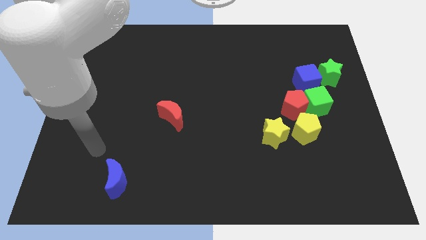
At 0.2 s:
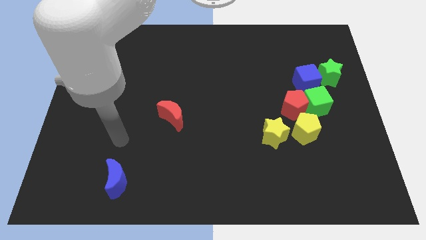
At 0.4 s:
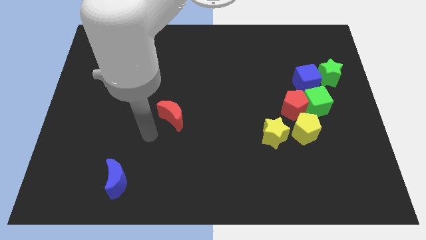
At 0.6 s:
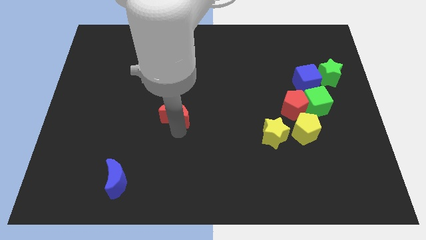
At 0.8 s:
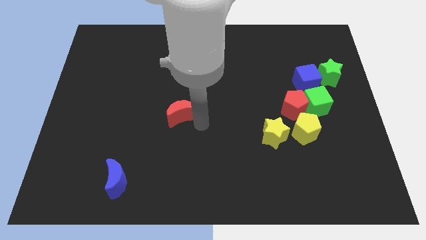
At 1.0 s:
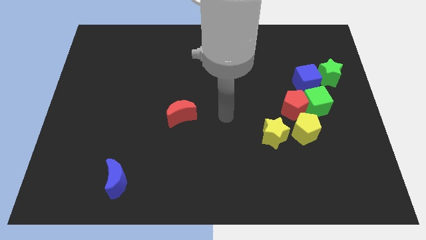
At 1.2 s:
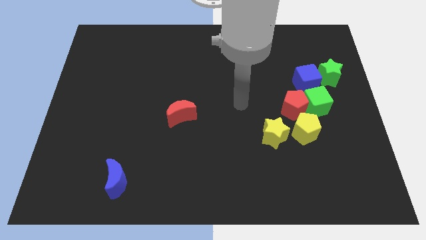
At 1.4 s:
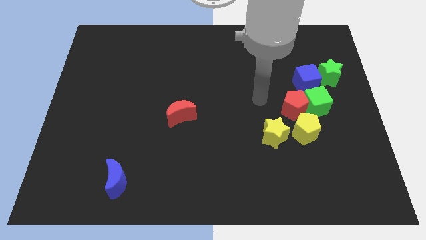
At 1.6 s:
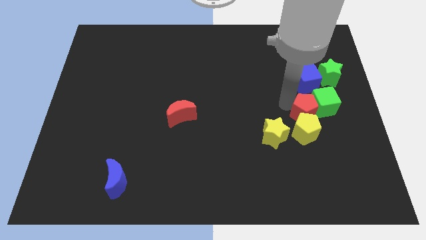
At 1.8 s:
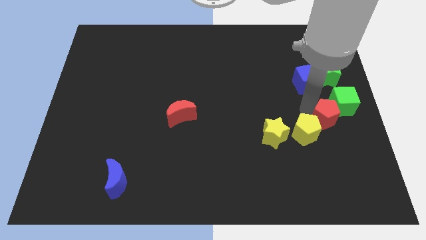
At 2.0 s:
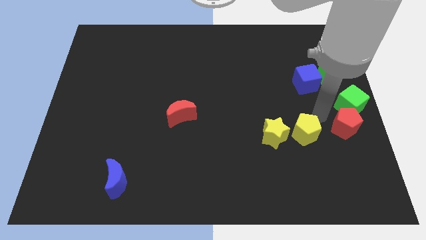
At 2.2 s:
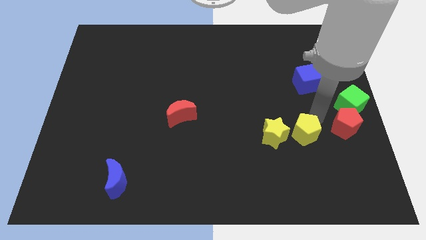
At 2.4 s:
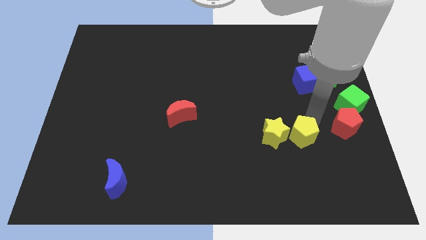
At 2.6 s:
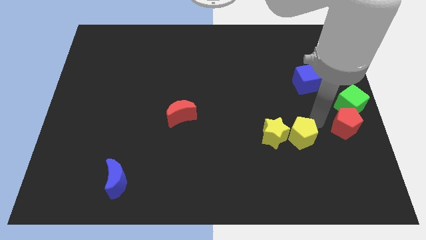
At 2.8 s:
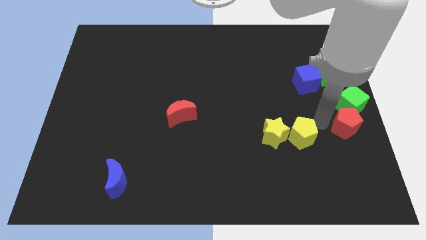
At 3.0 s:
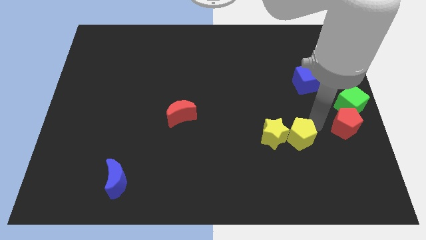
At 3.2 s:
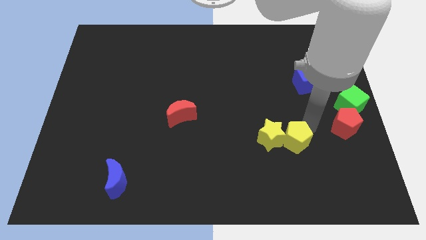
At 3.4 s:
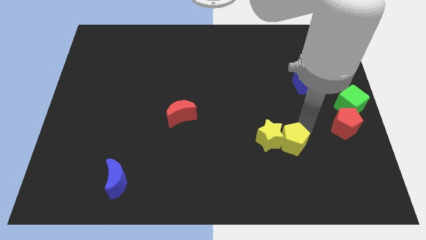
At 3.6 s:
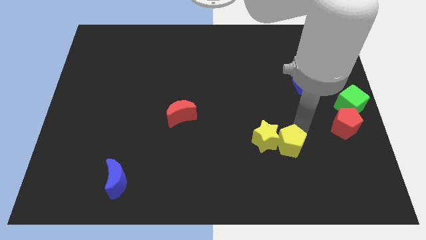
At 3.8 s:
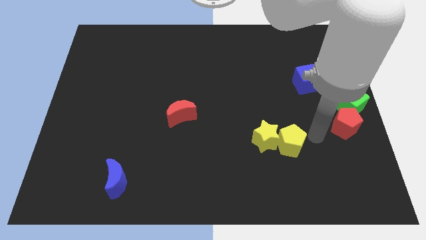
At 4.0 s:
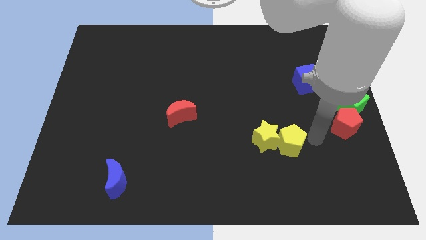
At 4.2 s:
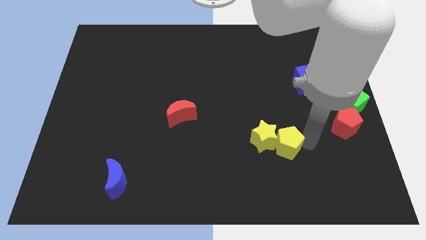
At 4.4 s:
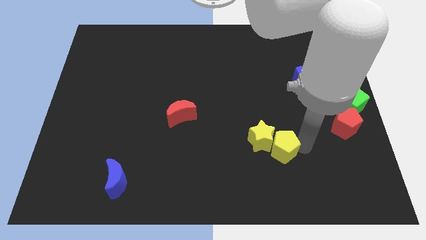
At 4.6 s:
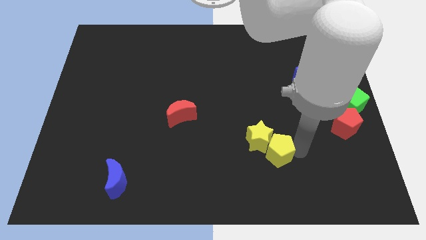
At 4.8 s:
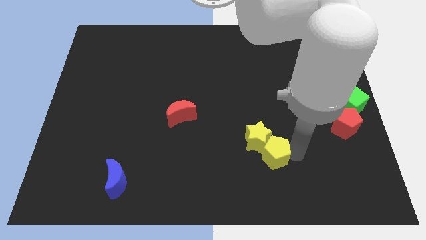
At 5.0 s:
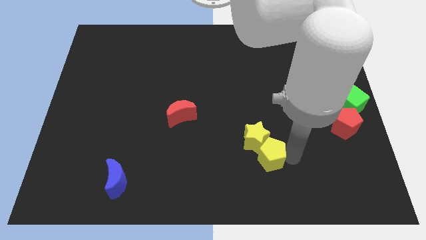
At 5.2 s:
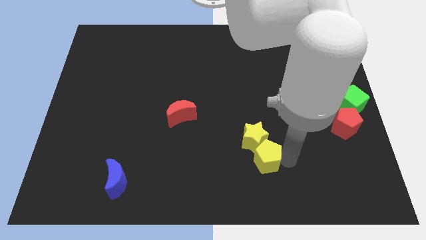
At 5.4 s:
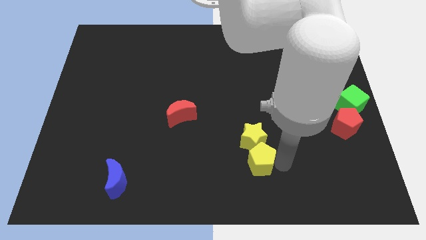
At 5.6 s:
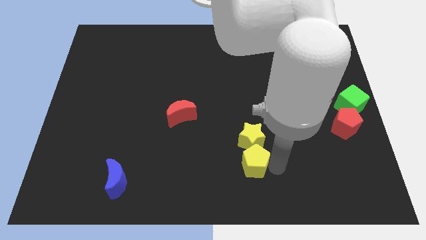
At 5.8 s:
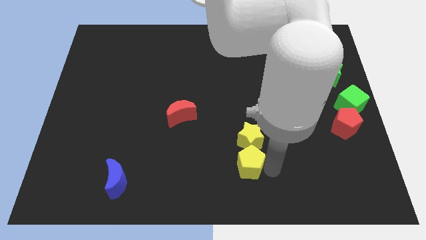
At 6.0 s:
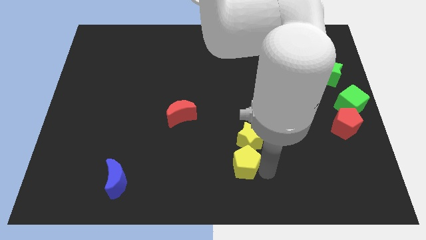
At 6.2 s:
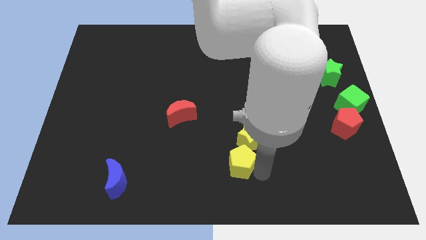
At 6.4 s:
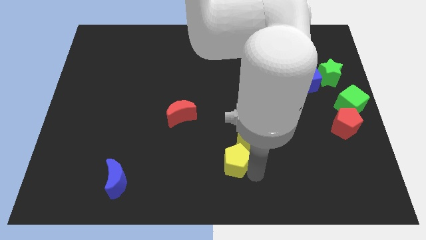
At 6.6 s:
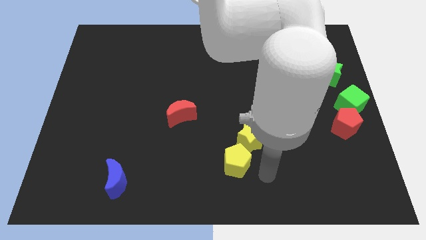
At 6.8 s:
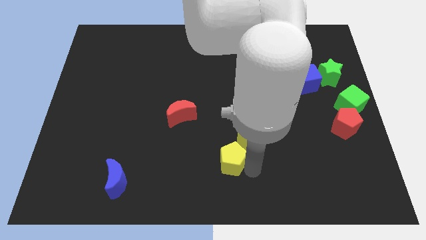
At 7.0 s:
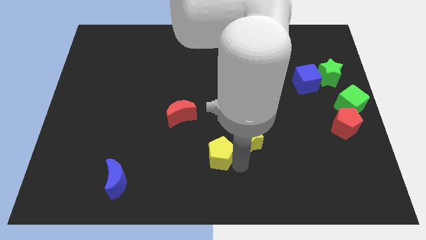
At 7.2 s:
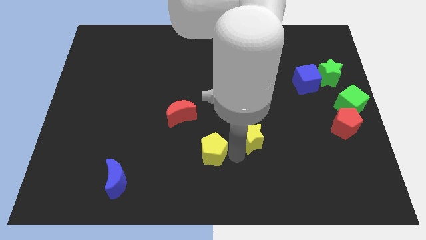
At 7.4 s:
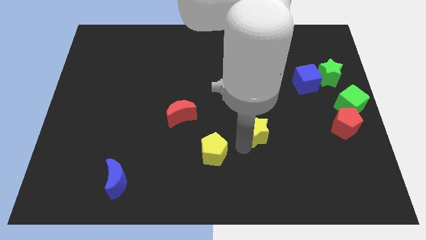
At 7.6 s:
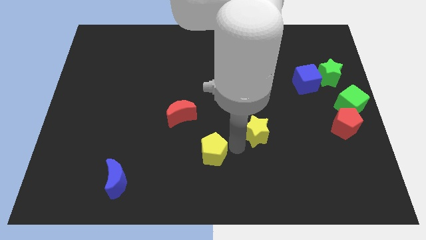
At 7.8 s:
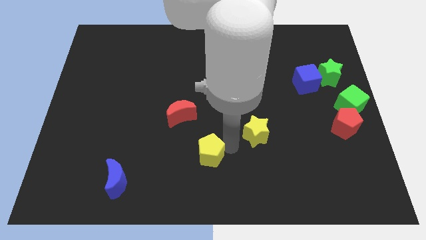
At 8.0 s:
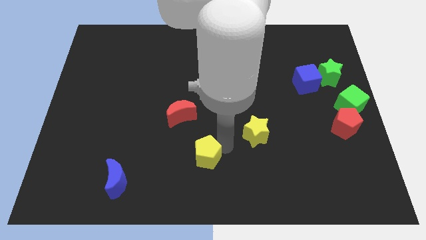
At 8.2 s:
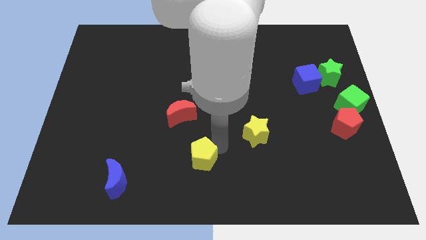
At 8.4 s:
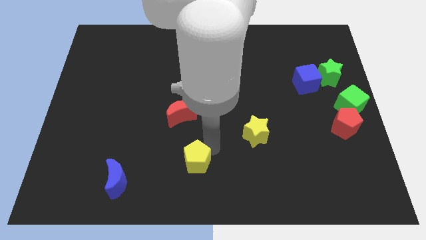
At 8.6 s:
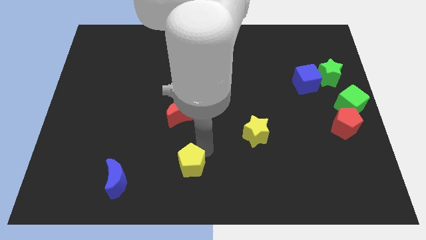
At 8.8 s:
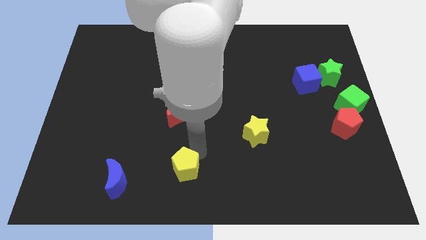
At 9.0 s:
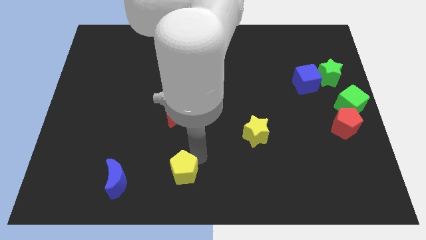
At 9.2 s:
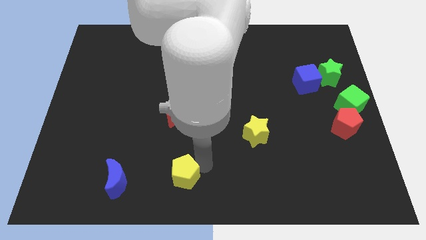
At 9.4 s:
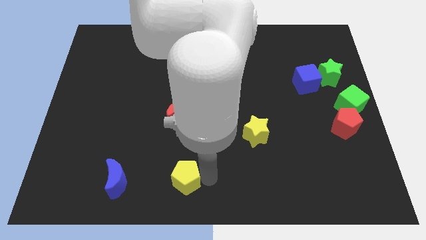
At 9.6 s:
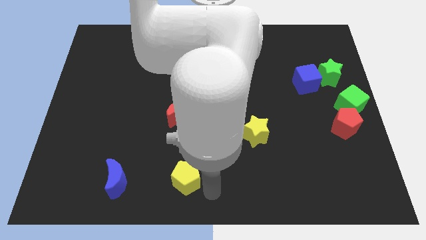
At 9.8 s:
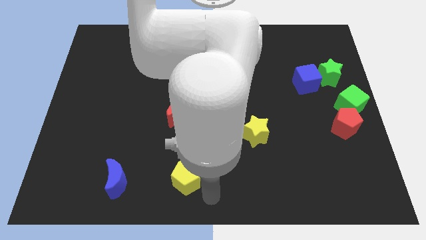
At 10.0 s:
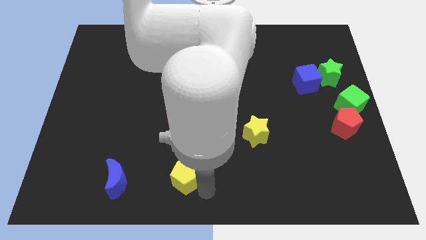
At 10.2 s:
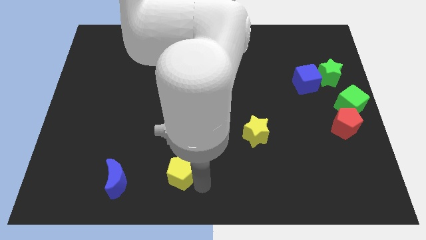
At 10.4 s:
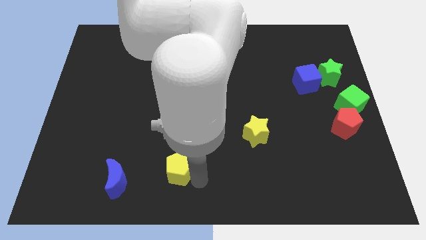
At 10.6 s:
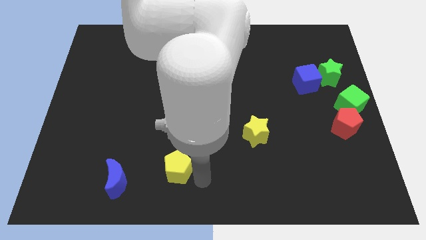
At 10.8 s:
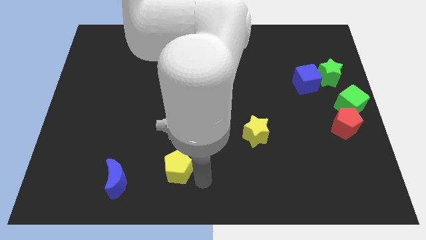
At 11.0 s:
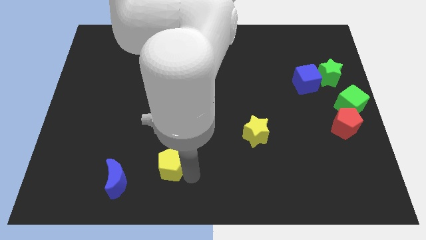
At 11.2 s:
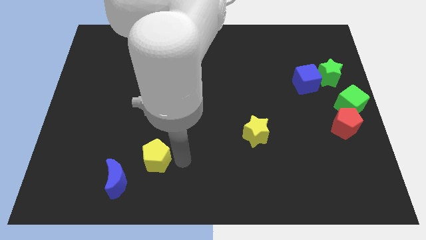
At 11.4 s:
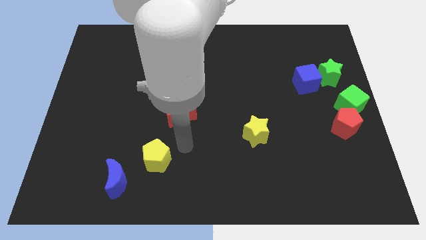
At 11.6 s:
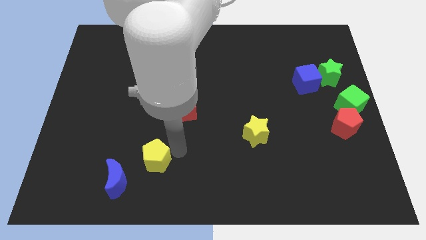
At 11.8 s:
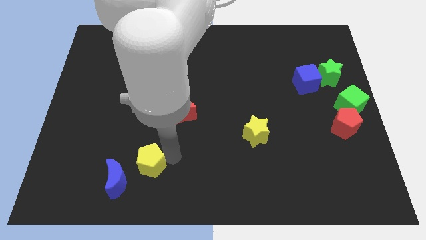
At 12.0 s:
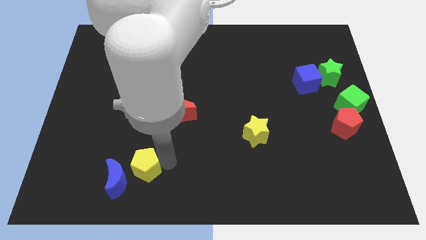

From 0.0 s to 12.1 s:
push the yellow pentagon close to the blue moon

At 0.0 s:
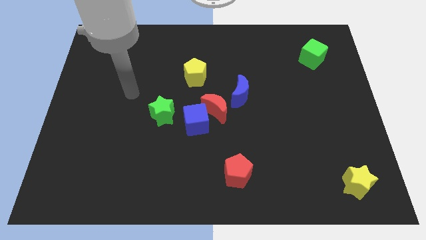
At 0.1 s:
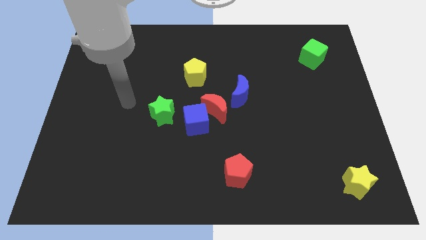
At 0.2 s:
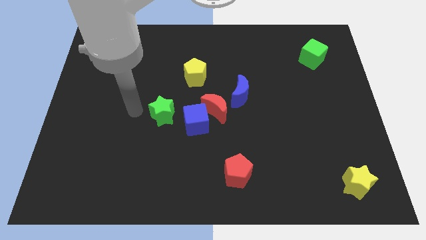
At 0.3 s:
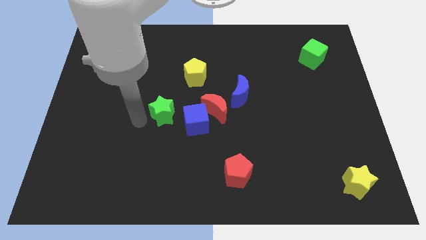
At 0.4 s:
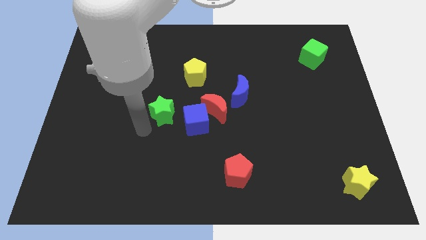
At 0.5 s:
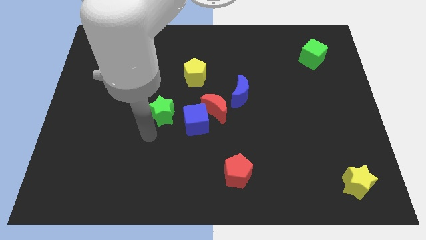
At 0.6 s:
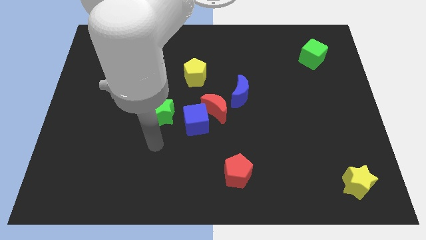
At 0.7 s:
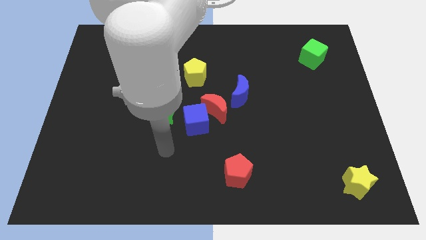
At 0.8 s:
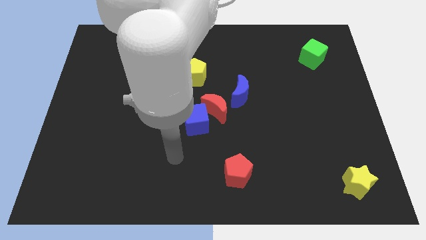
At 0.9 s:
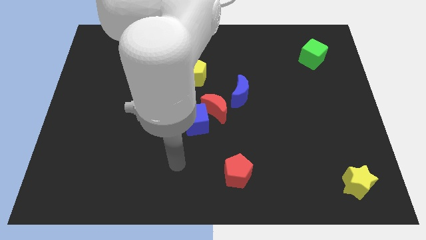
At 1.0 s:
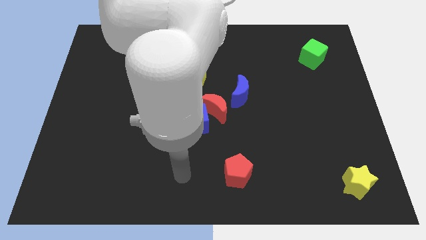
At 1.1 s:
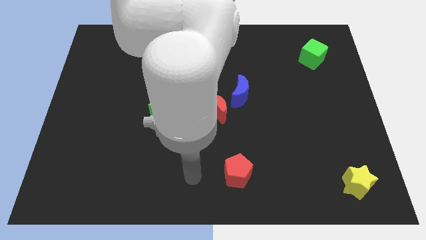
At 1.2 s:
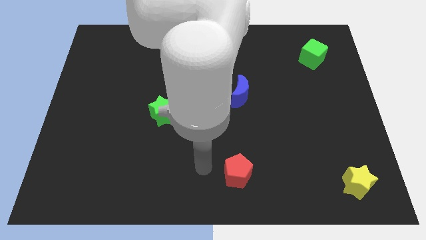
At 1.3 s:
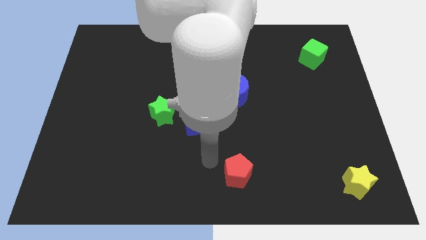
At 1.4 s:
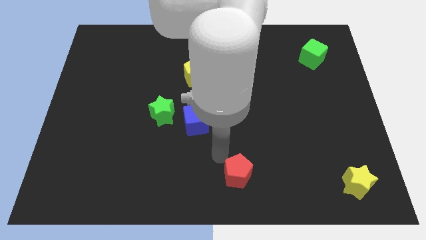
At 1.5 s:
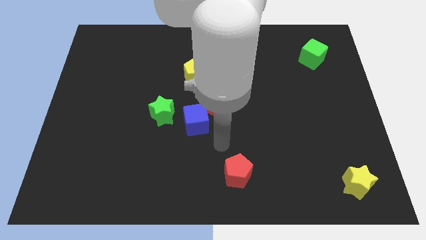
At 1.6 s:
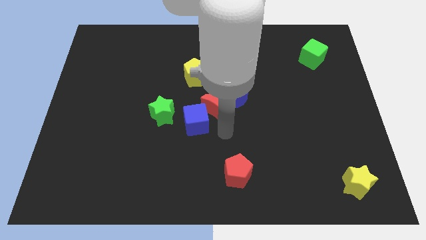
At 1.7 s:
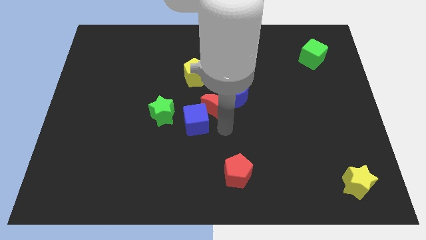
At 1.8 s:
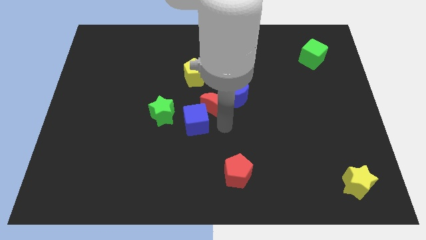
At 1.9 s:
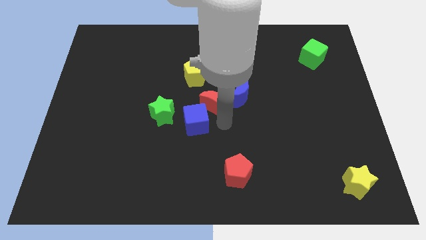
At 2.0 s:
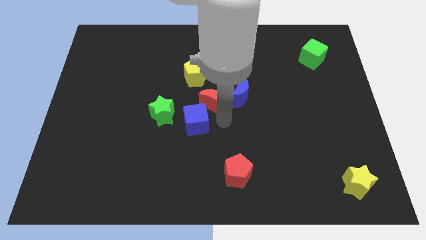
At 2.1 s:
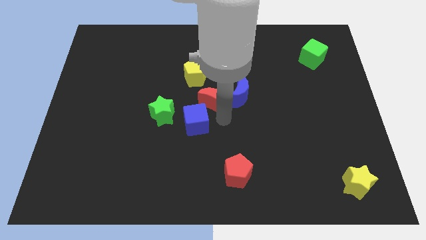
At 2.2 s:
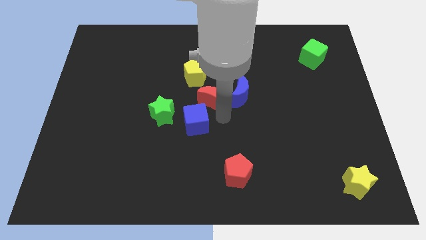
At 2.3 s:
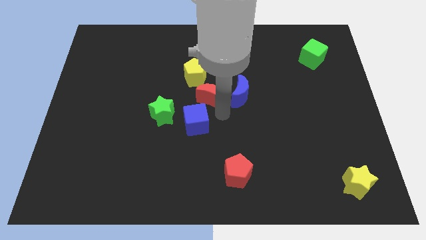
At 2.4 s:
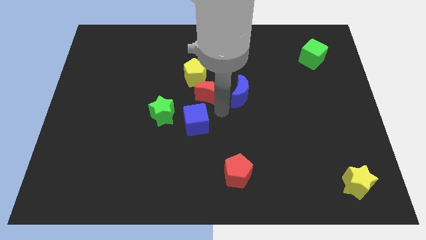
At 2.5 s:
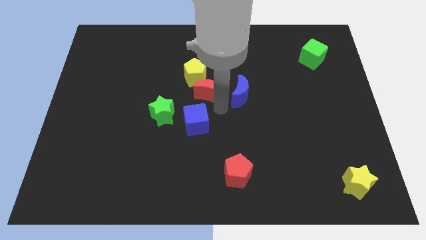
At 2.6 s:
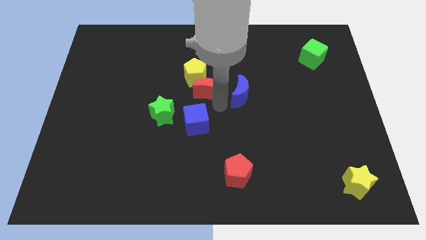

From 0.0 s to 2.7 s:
move the red moon to the yellow pentagon
